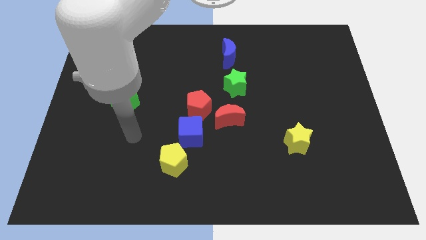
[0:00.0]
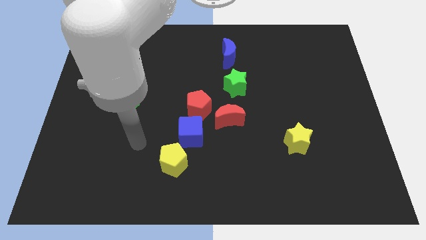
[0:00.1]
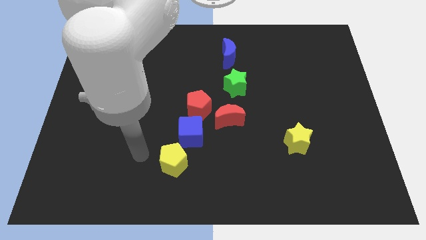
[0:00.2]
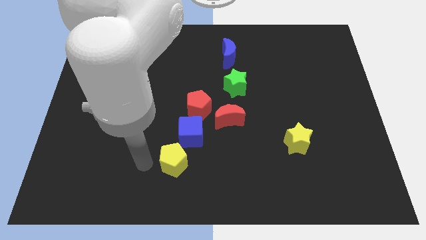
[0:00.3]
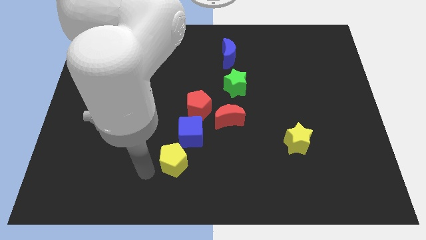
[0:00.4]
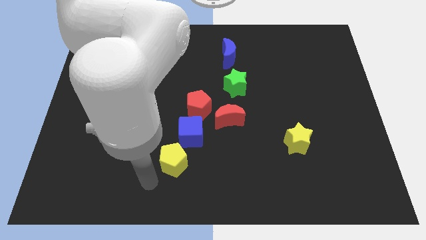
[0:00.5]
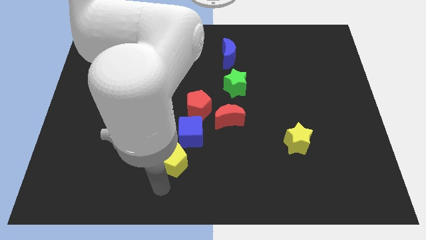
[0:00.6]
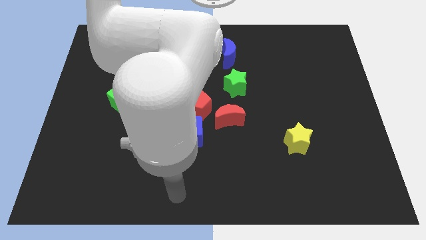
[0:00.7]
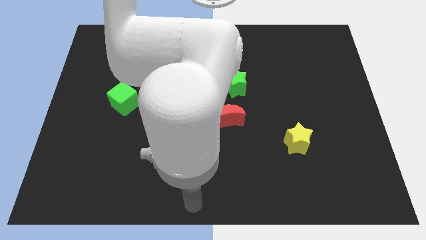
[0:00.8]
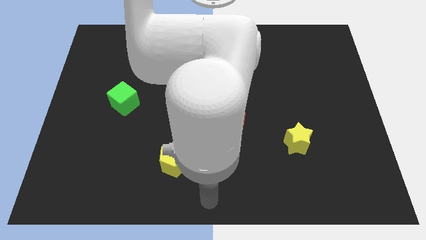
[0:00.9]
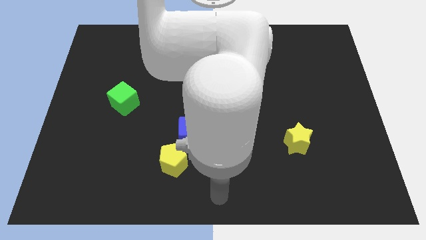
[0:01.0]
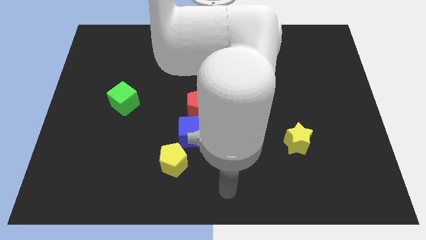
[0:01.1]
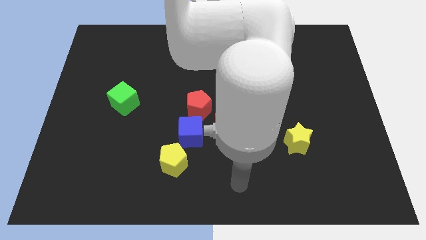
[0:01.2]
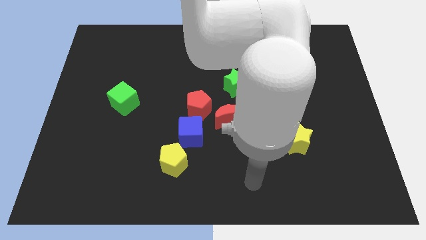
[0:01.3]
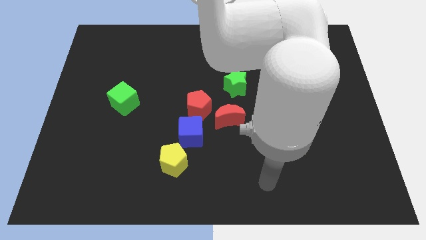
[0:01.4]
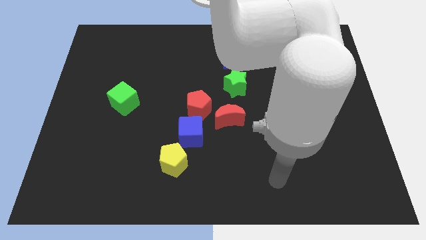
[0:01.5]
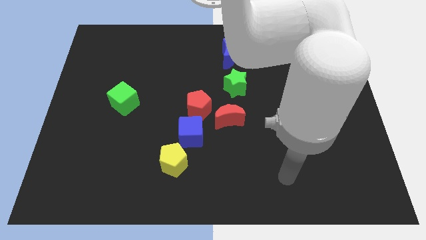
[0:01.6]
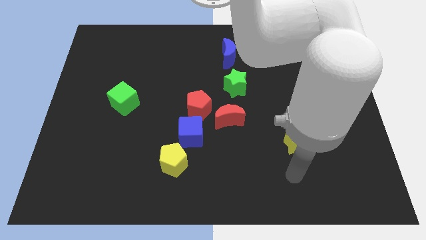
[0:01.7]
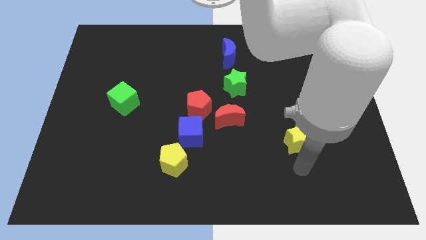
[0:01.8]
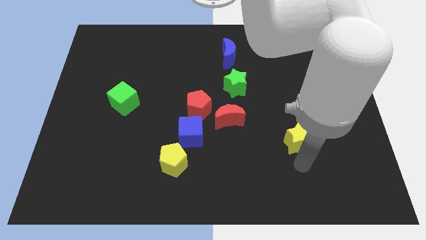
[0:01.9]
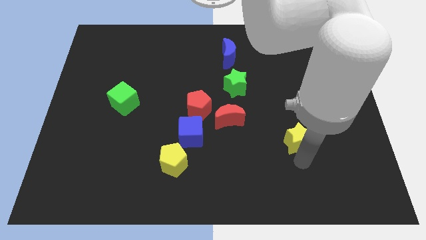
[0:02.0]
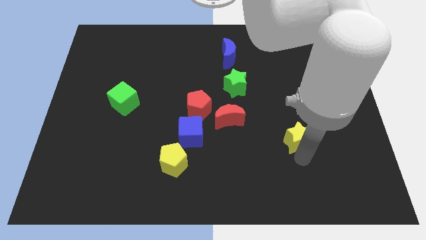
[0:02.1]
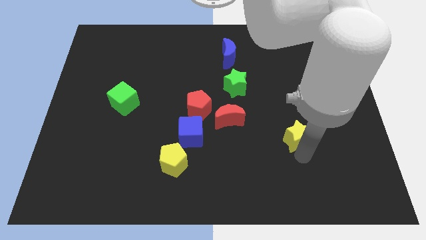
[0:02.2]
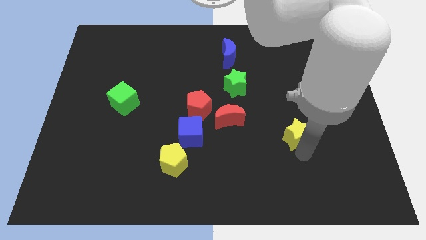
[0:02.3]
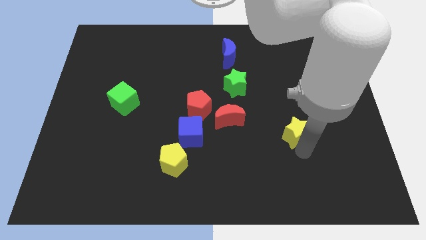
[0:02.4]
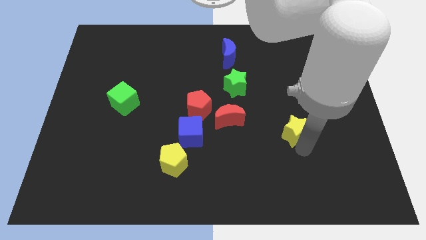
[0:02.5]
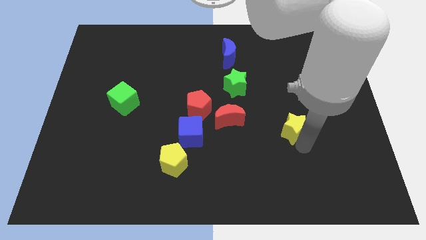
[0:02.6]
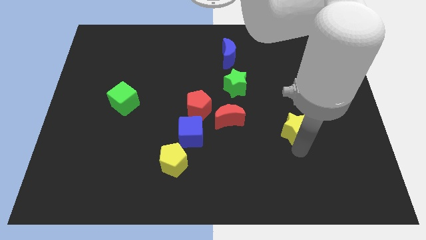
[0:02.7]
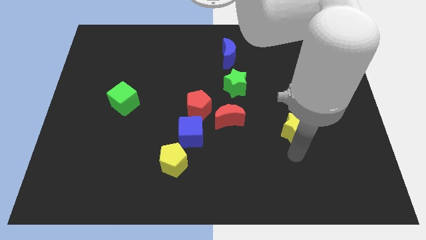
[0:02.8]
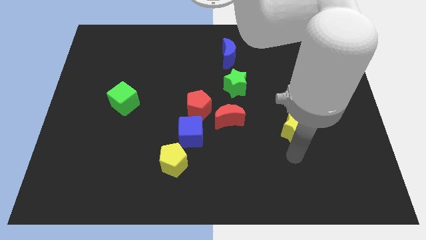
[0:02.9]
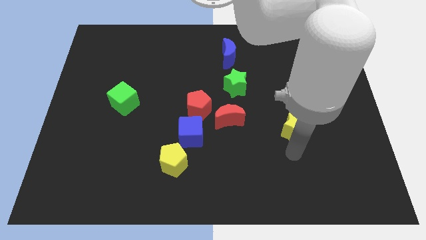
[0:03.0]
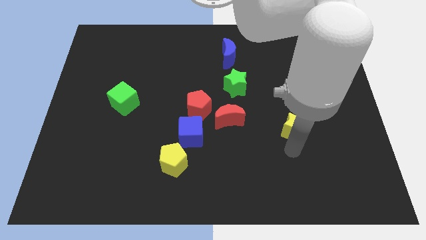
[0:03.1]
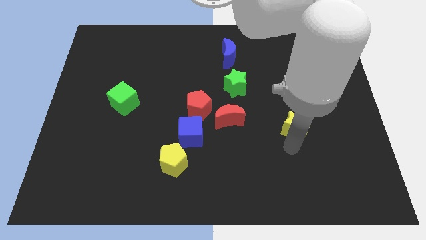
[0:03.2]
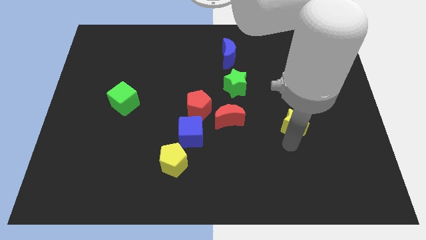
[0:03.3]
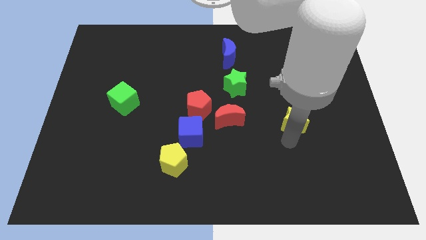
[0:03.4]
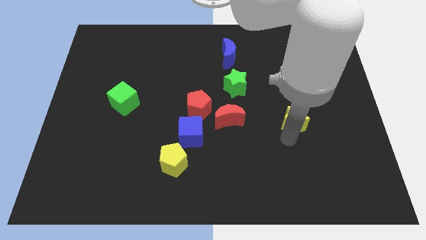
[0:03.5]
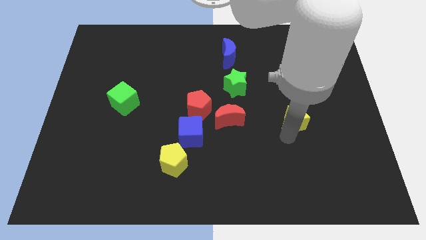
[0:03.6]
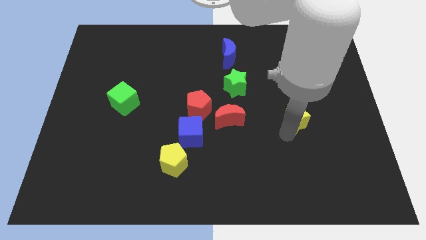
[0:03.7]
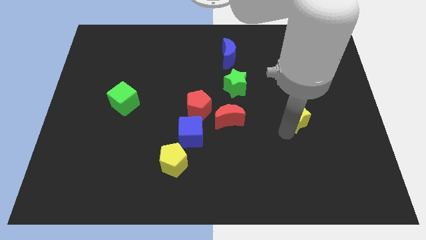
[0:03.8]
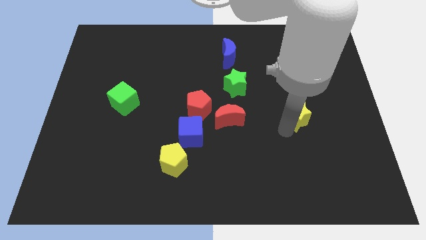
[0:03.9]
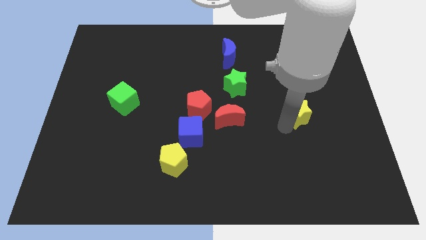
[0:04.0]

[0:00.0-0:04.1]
slightly move the yellow star up

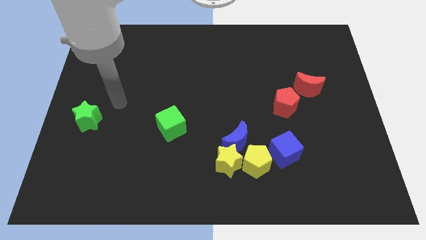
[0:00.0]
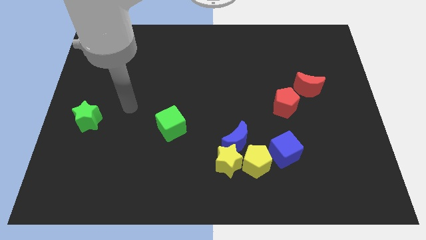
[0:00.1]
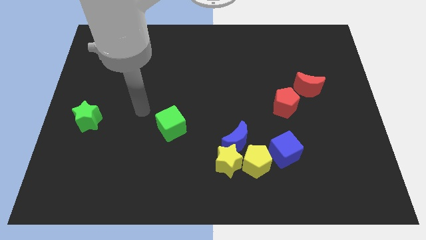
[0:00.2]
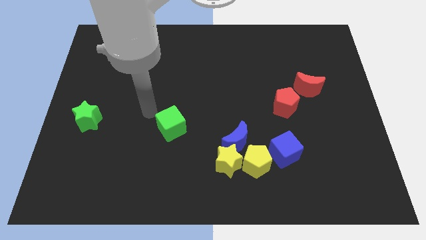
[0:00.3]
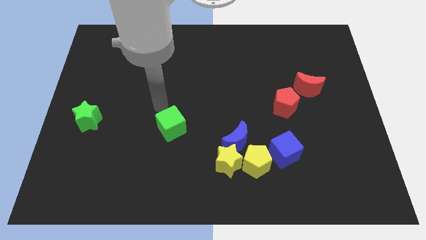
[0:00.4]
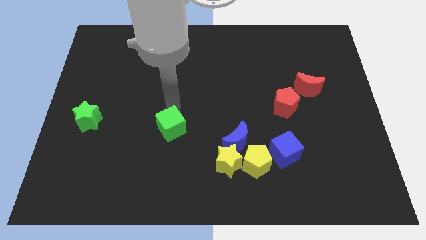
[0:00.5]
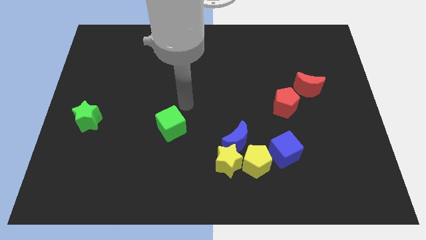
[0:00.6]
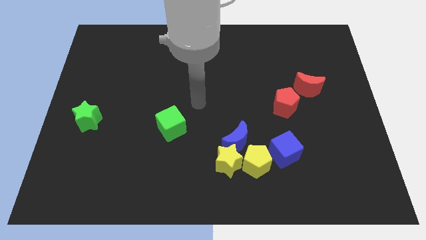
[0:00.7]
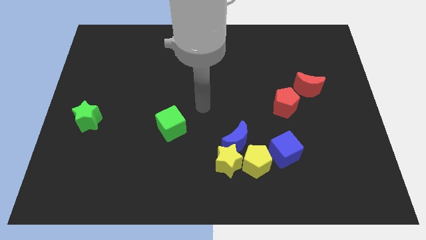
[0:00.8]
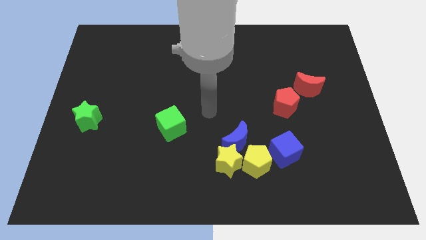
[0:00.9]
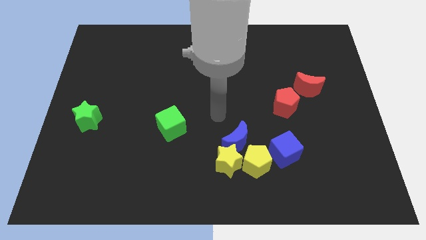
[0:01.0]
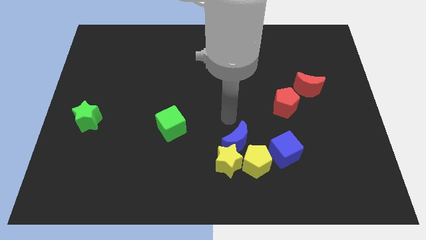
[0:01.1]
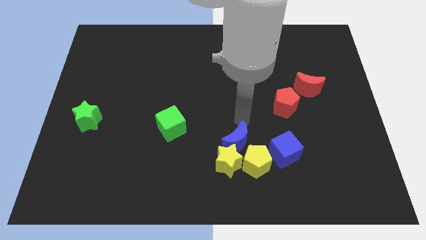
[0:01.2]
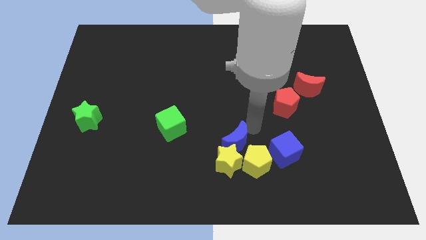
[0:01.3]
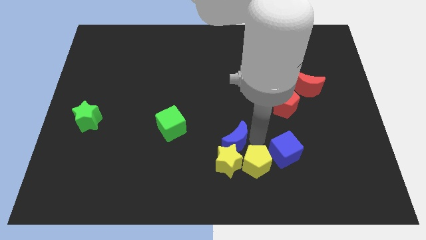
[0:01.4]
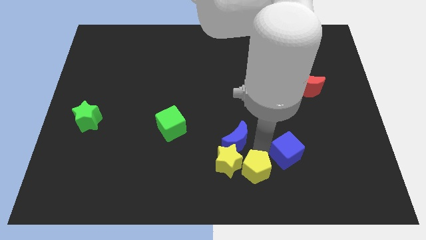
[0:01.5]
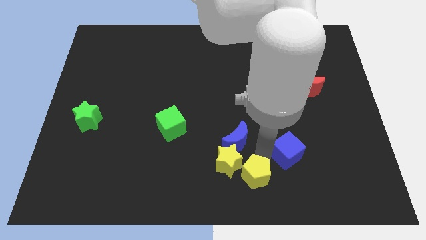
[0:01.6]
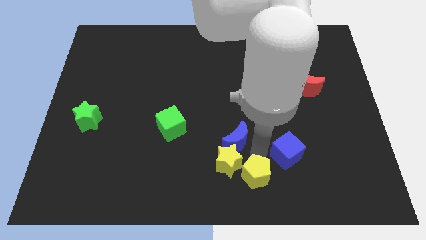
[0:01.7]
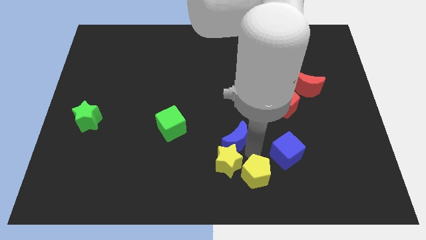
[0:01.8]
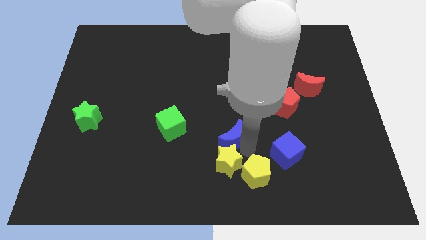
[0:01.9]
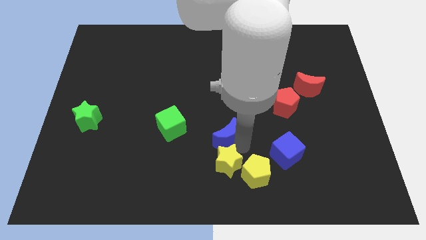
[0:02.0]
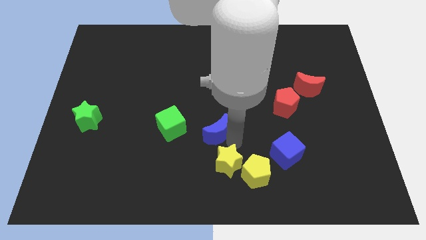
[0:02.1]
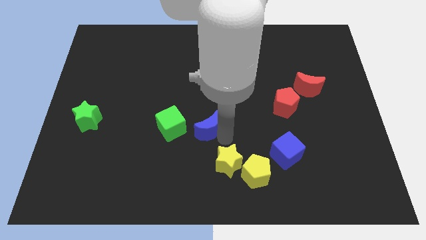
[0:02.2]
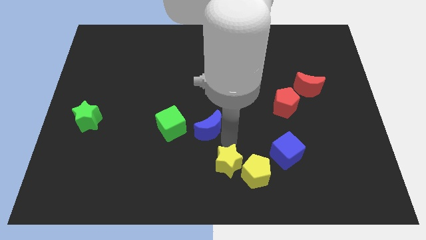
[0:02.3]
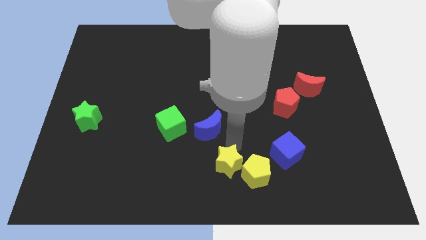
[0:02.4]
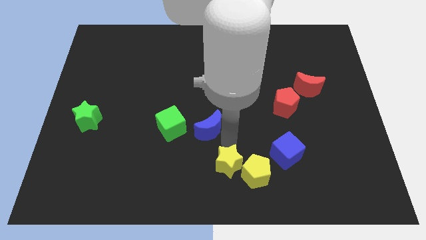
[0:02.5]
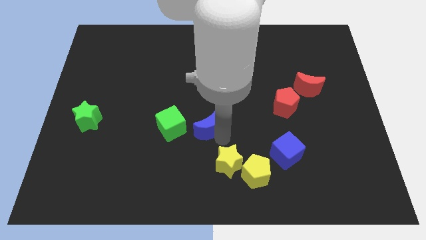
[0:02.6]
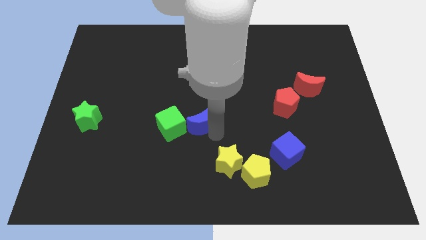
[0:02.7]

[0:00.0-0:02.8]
slide the blue moon upwards and to the left somewhat

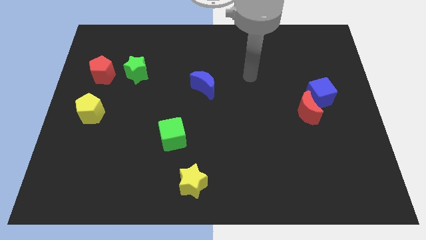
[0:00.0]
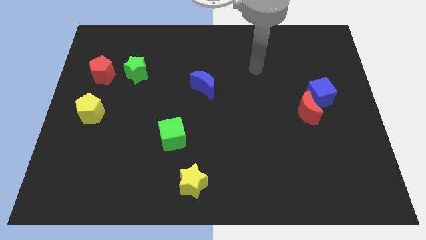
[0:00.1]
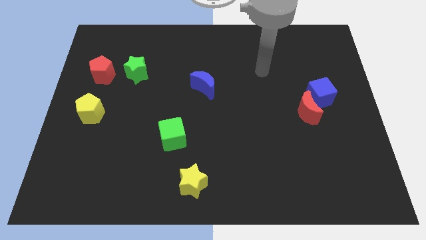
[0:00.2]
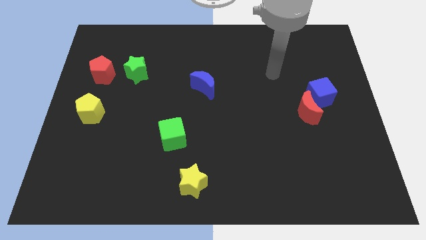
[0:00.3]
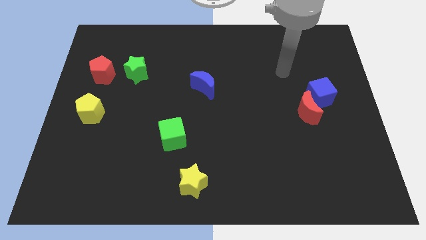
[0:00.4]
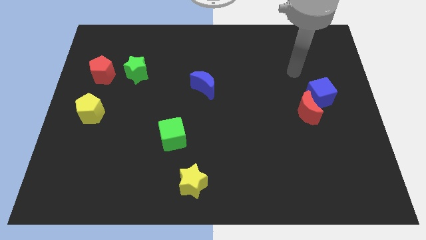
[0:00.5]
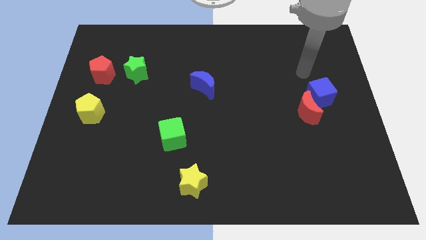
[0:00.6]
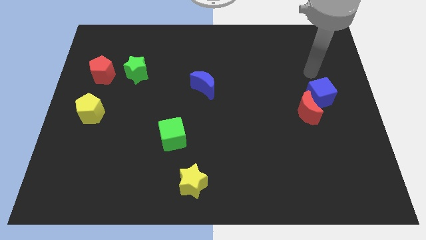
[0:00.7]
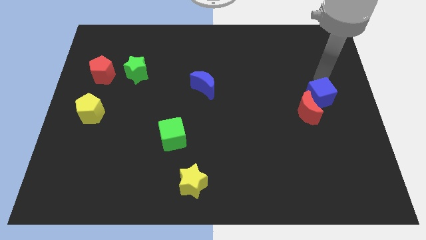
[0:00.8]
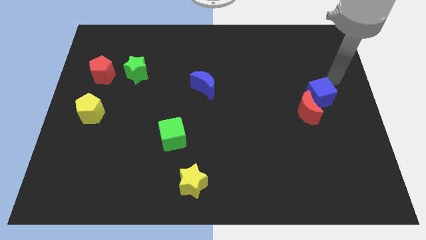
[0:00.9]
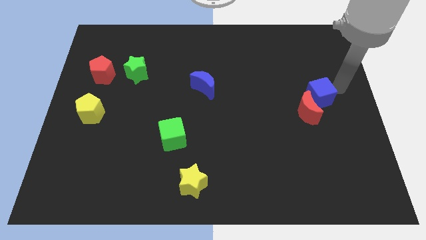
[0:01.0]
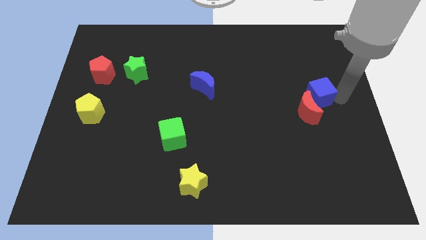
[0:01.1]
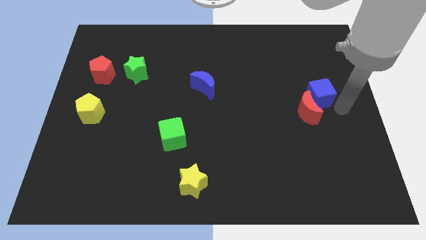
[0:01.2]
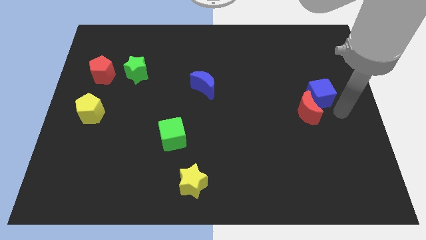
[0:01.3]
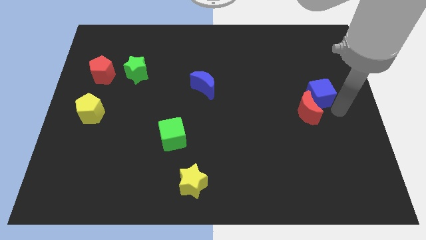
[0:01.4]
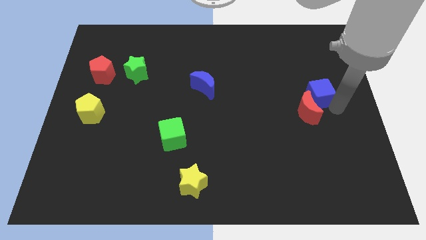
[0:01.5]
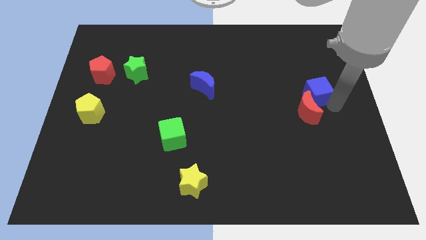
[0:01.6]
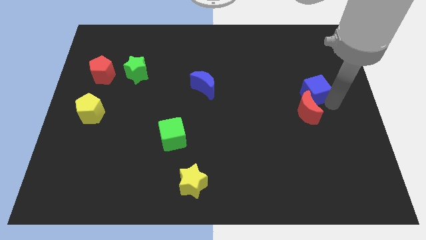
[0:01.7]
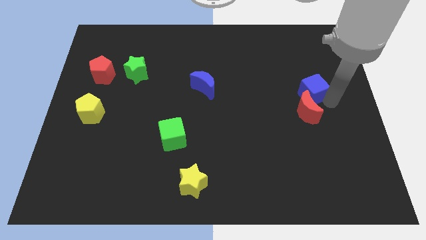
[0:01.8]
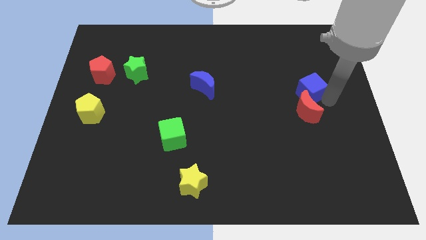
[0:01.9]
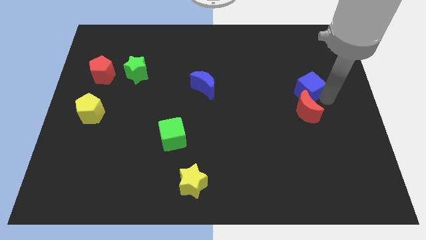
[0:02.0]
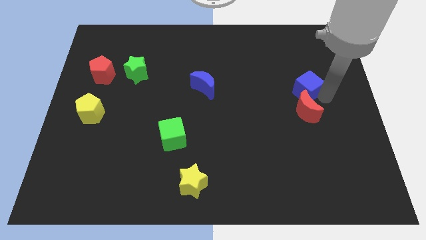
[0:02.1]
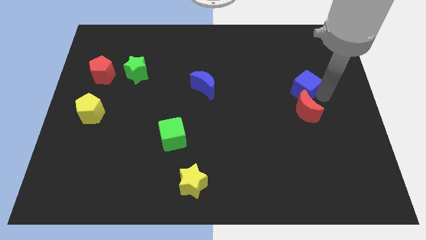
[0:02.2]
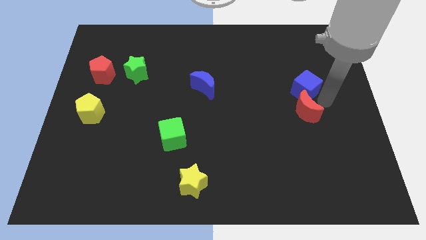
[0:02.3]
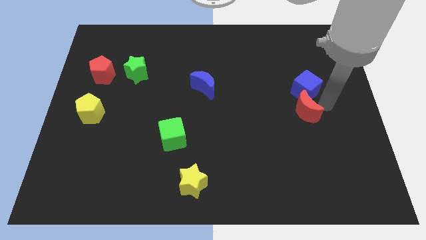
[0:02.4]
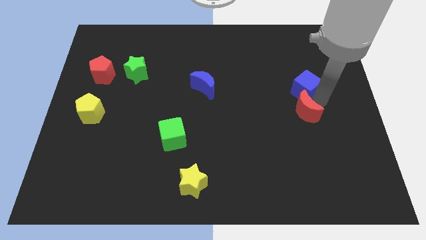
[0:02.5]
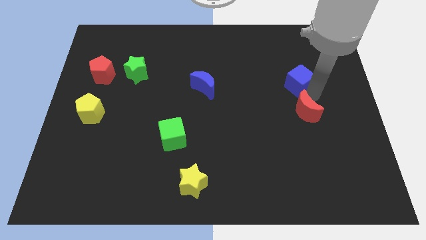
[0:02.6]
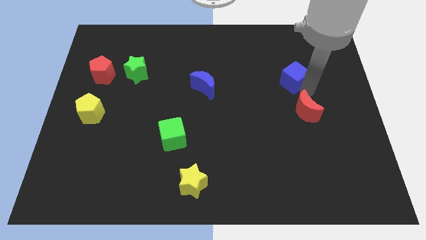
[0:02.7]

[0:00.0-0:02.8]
slightly push the blue cube diagonally upwards and left
